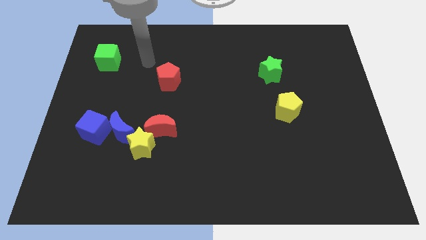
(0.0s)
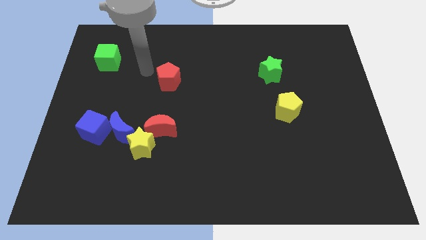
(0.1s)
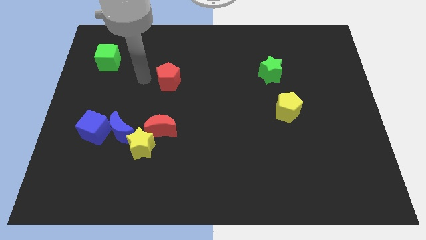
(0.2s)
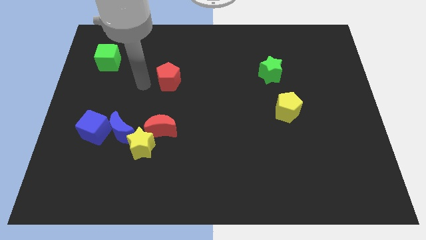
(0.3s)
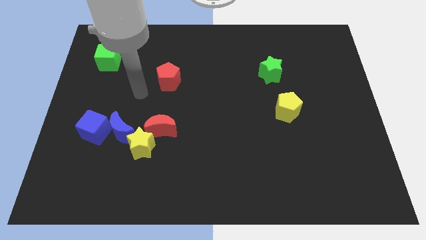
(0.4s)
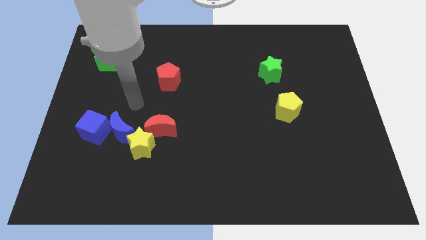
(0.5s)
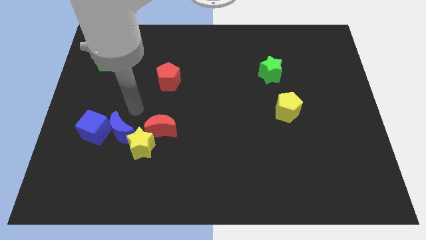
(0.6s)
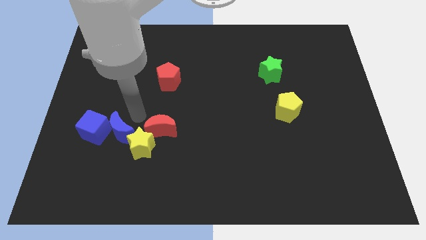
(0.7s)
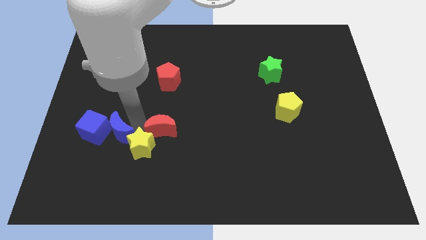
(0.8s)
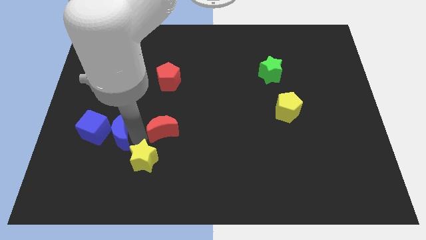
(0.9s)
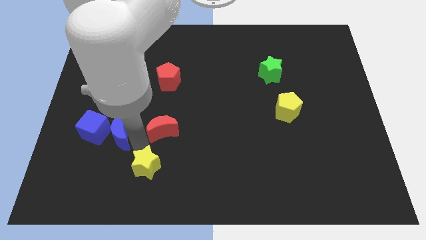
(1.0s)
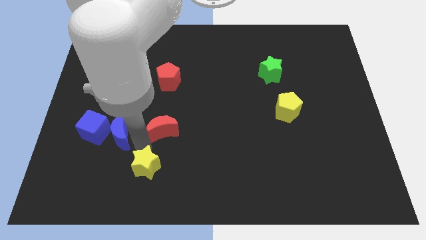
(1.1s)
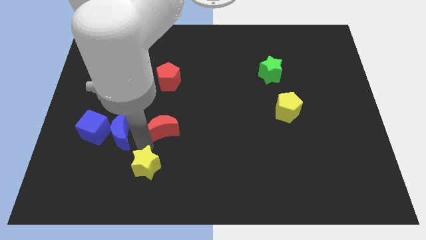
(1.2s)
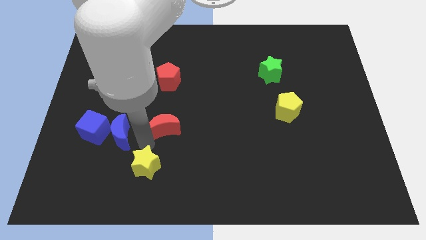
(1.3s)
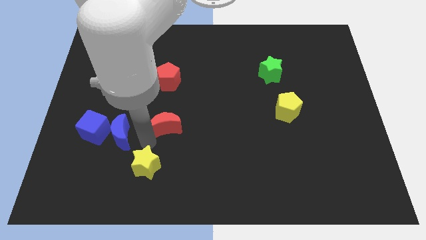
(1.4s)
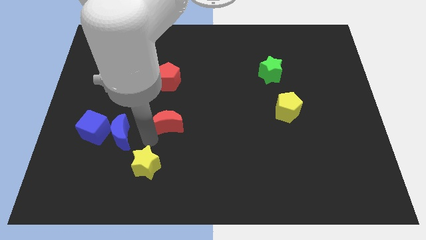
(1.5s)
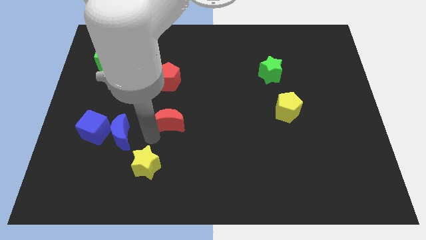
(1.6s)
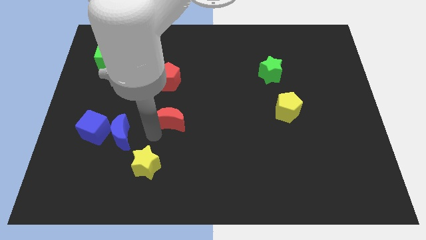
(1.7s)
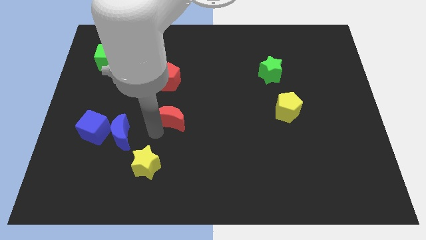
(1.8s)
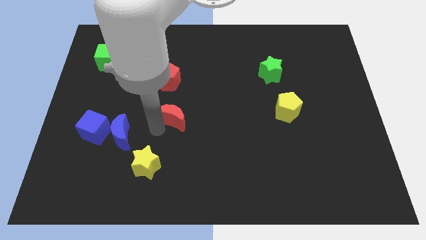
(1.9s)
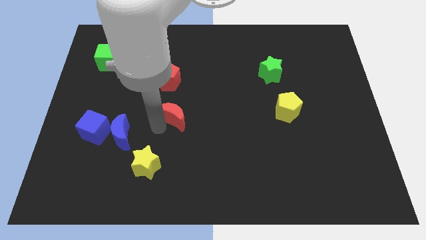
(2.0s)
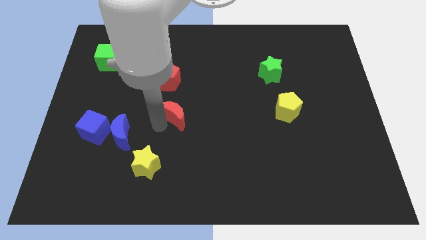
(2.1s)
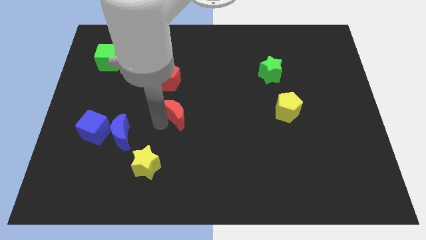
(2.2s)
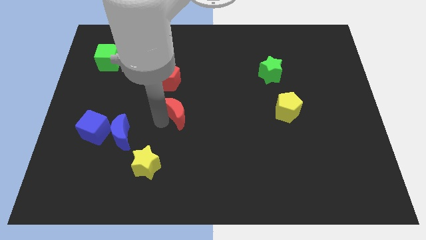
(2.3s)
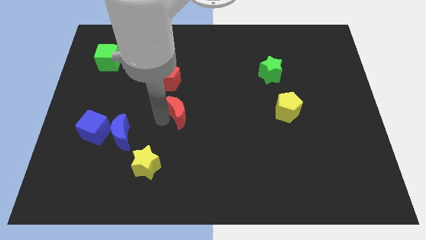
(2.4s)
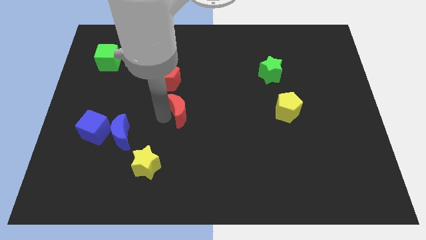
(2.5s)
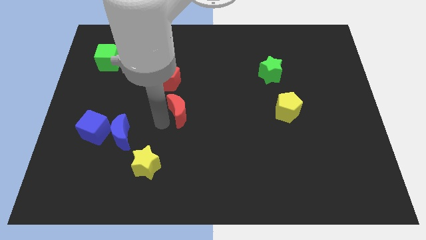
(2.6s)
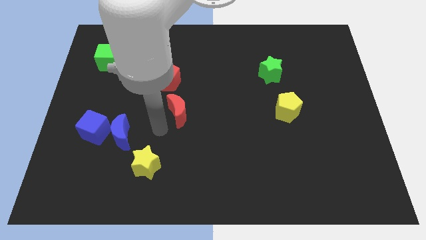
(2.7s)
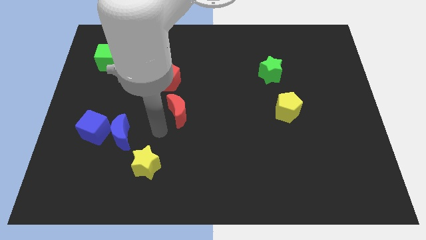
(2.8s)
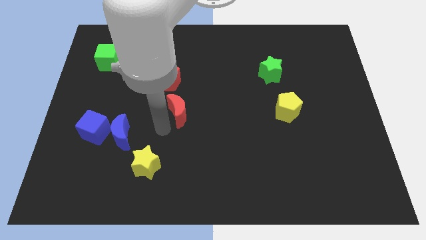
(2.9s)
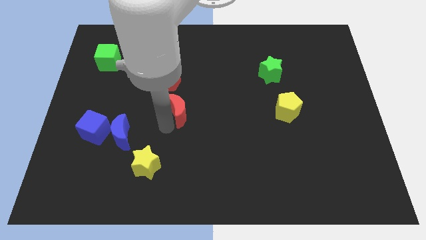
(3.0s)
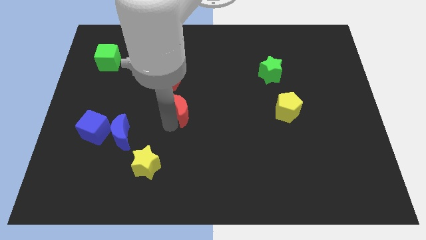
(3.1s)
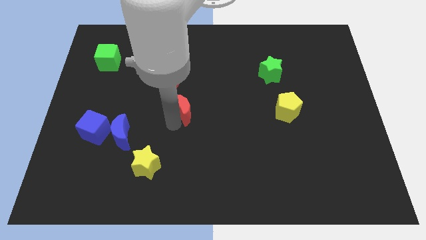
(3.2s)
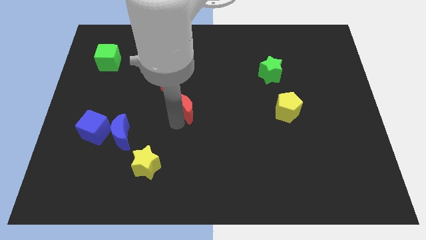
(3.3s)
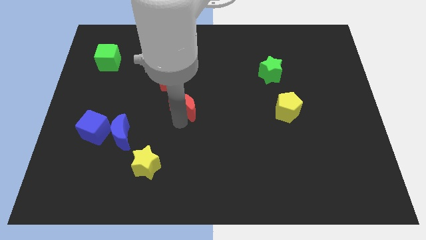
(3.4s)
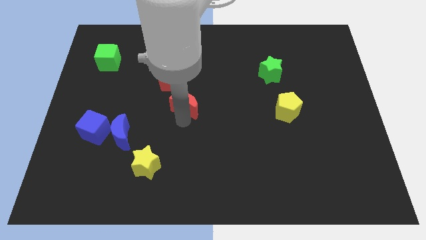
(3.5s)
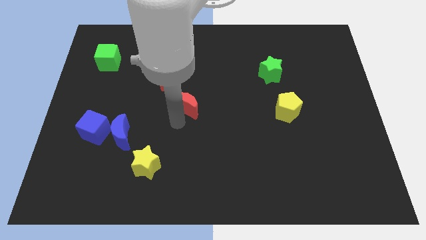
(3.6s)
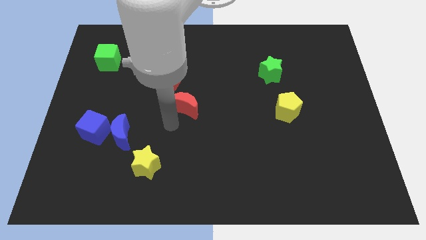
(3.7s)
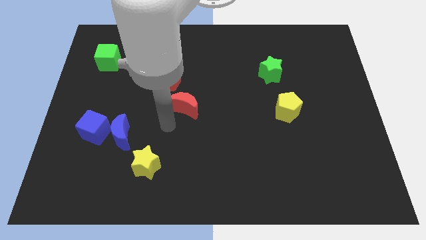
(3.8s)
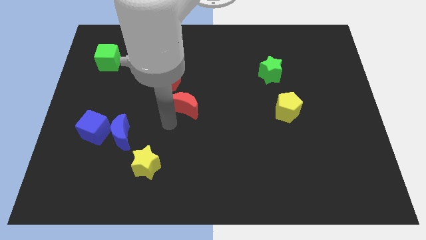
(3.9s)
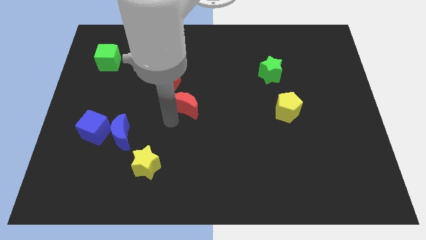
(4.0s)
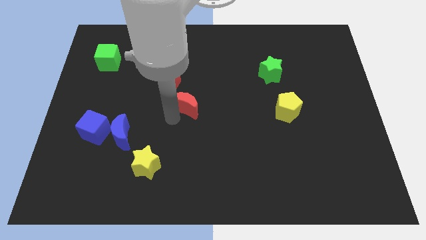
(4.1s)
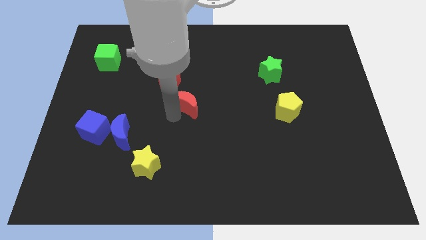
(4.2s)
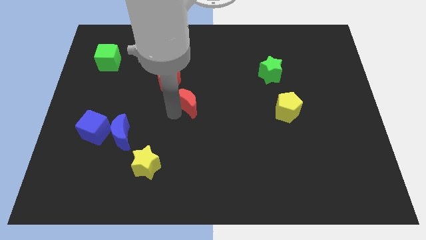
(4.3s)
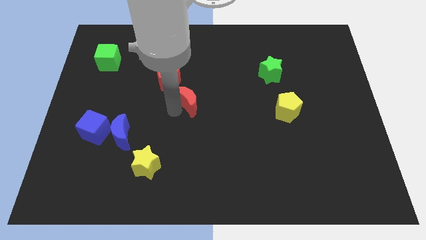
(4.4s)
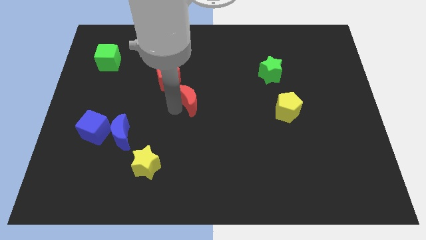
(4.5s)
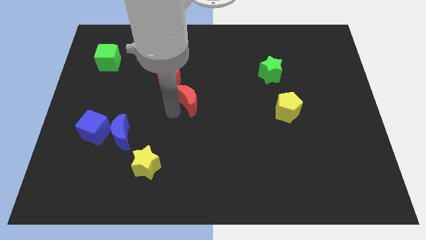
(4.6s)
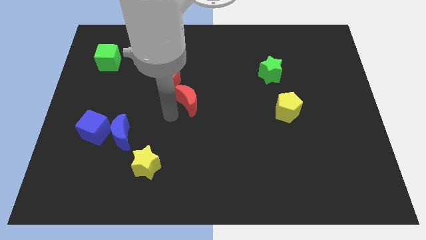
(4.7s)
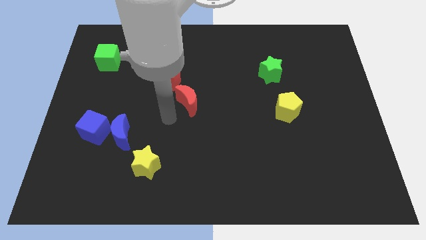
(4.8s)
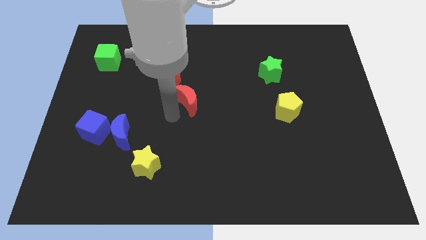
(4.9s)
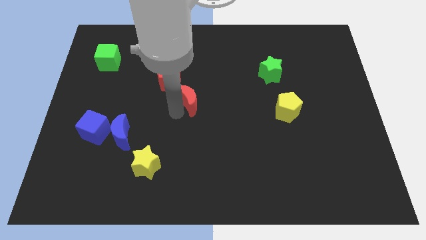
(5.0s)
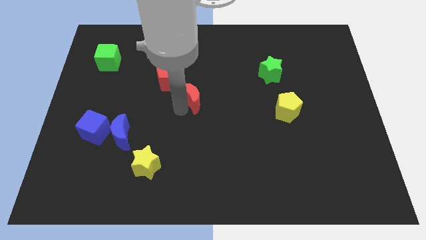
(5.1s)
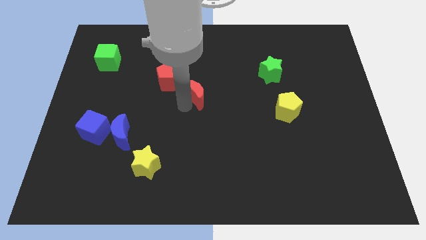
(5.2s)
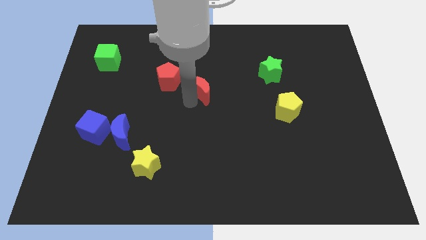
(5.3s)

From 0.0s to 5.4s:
put the red moon to the right of the red pentagon

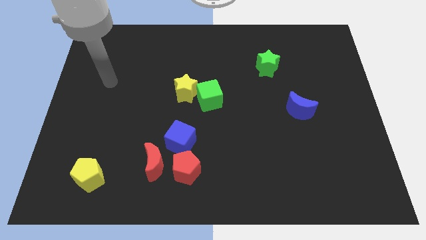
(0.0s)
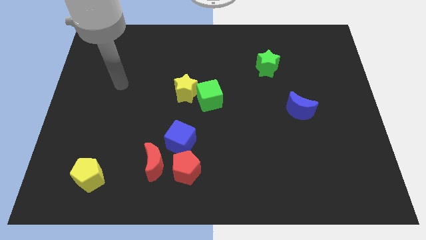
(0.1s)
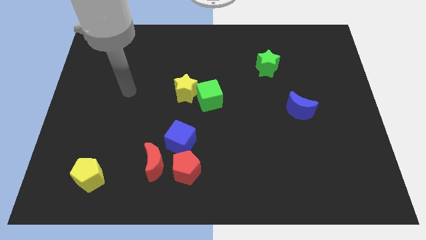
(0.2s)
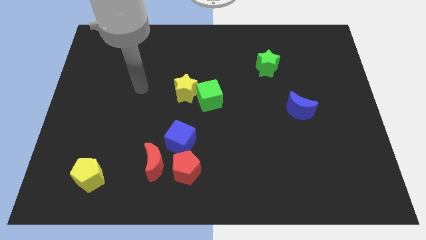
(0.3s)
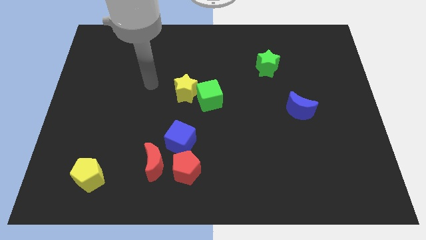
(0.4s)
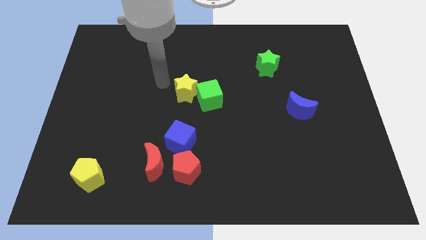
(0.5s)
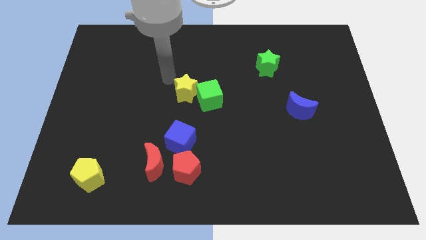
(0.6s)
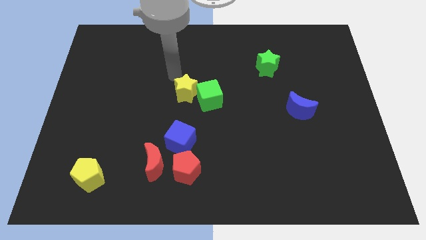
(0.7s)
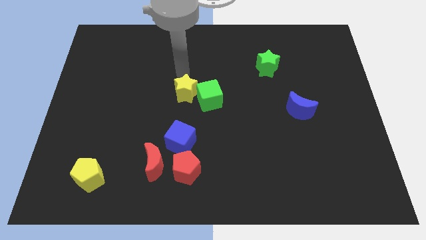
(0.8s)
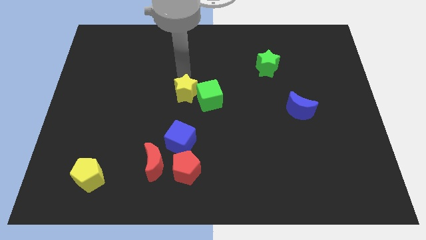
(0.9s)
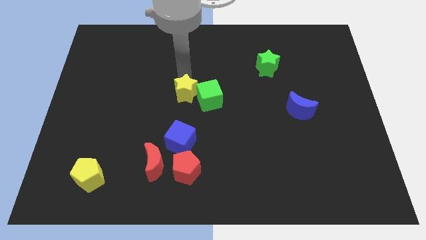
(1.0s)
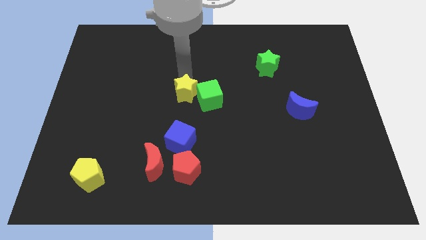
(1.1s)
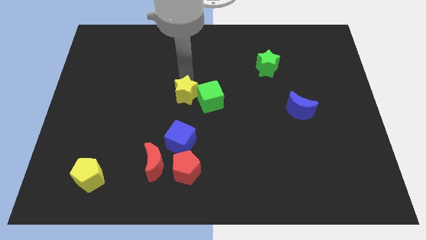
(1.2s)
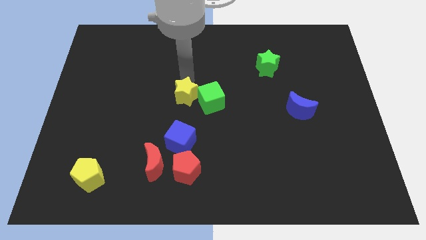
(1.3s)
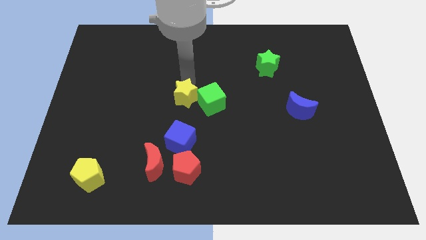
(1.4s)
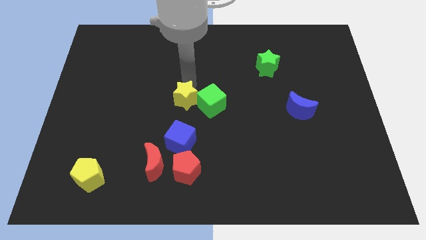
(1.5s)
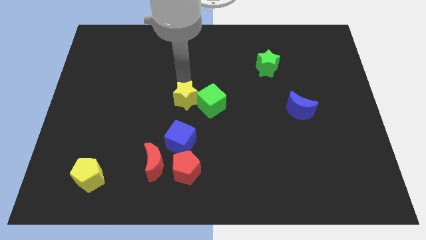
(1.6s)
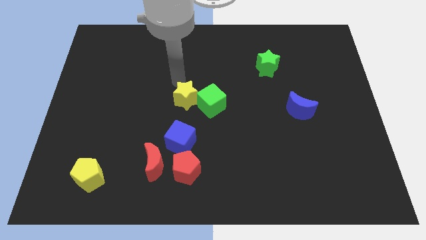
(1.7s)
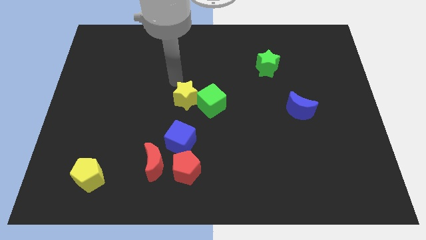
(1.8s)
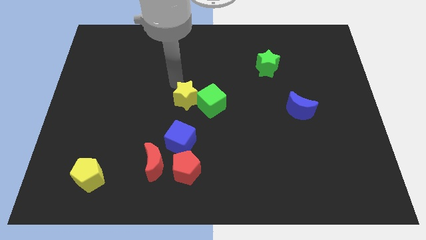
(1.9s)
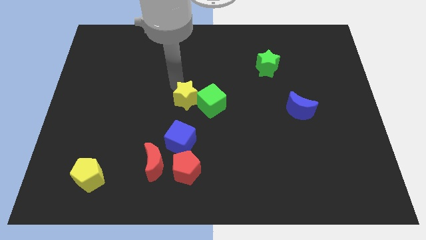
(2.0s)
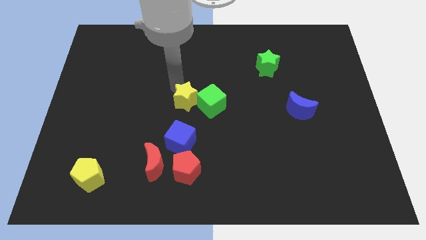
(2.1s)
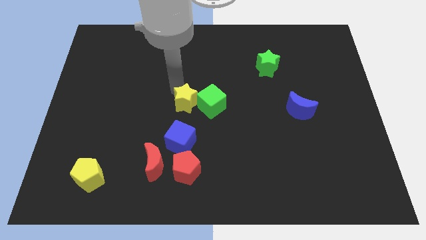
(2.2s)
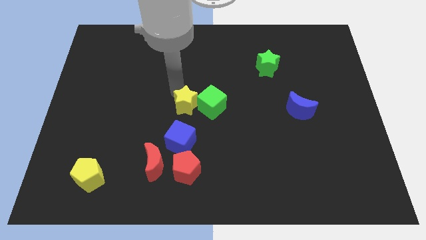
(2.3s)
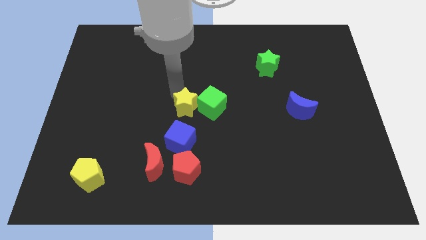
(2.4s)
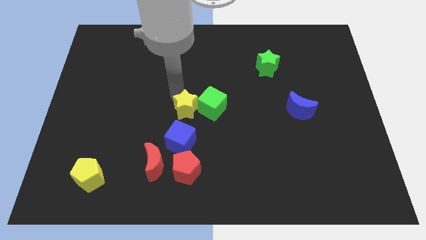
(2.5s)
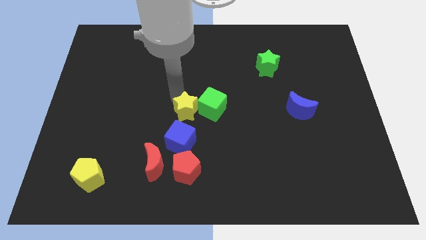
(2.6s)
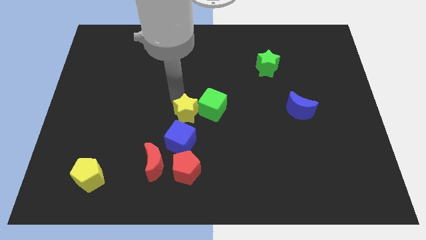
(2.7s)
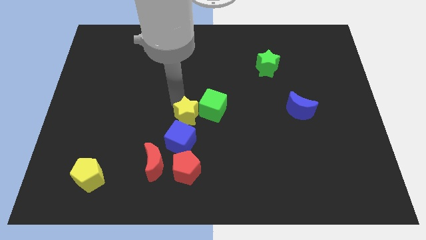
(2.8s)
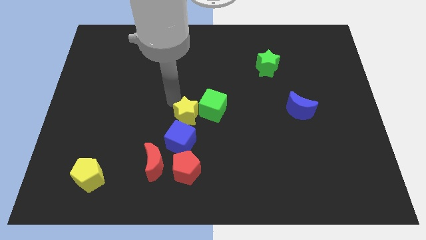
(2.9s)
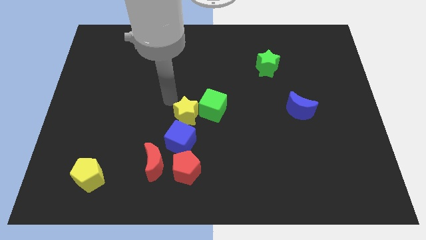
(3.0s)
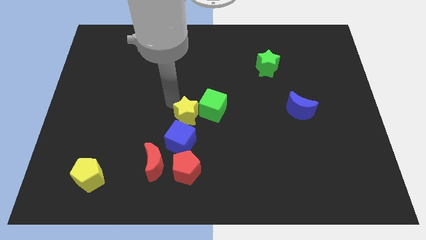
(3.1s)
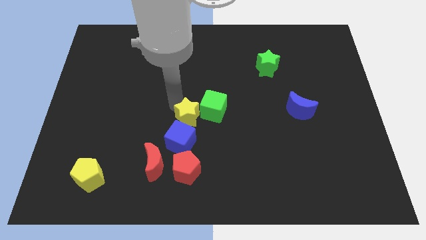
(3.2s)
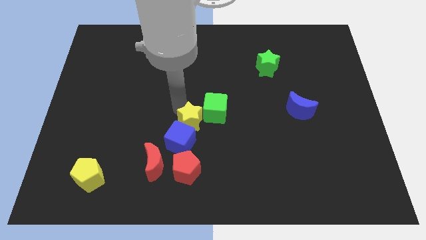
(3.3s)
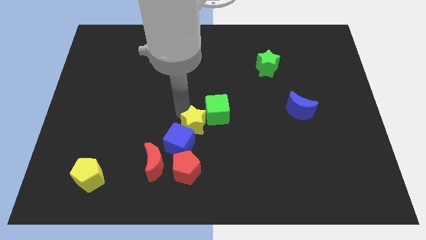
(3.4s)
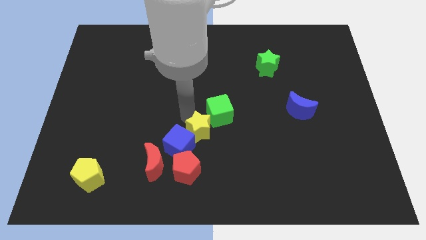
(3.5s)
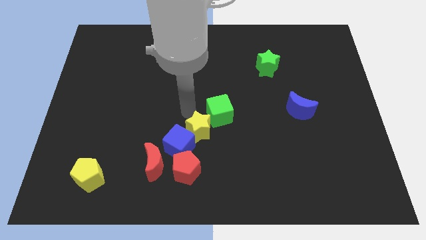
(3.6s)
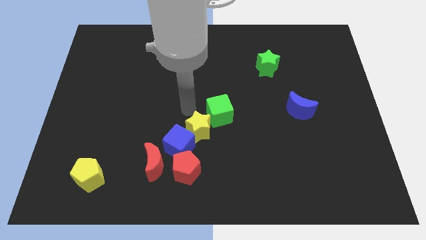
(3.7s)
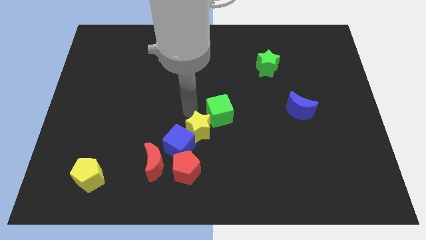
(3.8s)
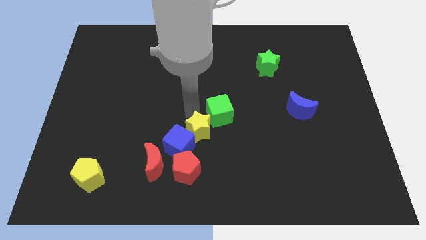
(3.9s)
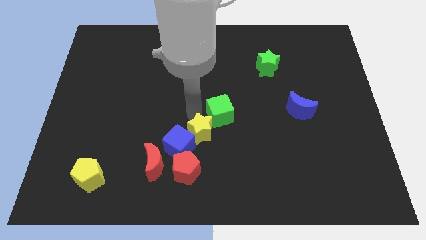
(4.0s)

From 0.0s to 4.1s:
push the yellow star to the top right of the red pentagon
